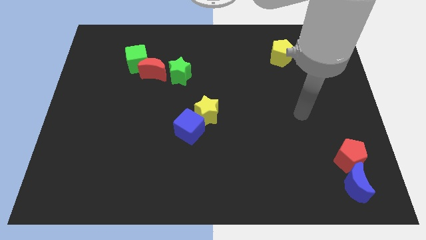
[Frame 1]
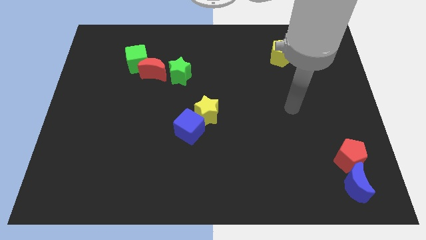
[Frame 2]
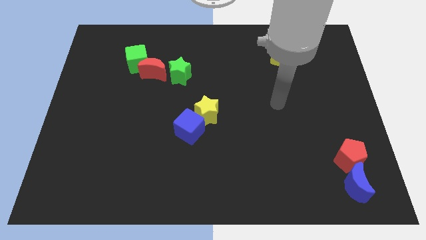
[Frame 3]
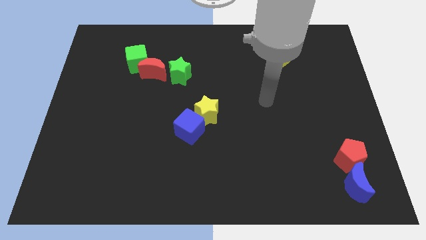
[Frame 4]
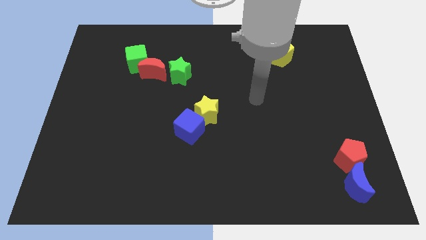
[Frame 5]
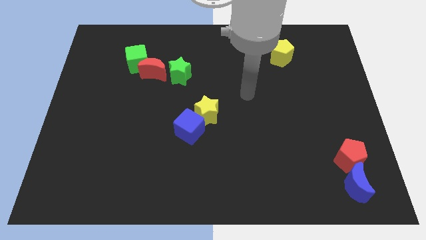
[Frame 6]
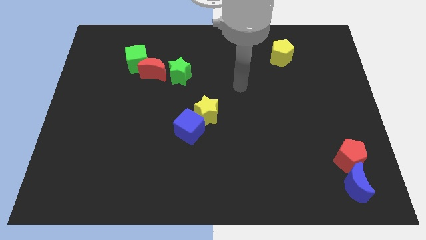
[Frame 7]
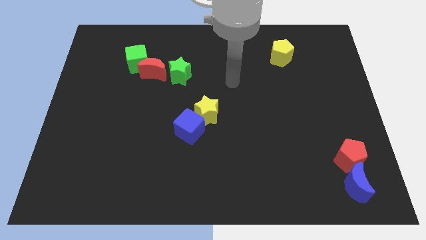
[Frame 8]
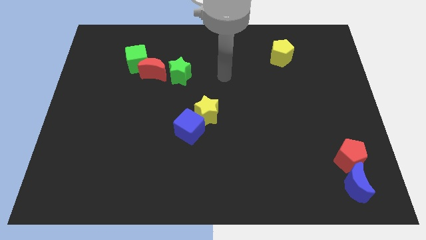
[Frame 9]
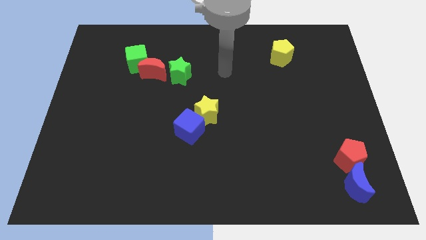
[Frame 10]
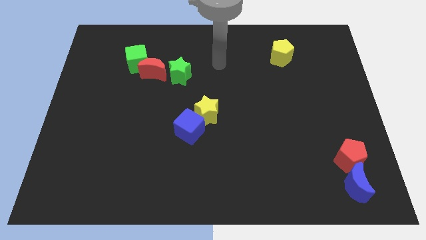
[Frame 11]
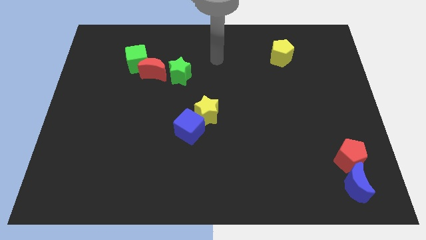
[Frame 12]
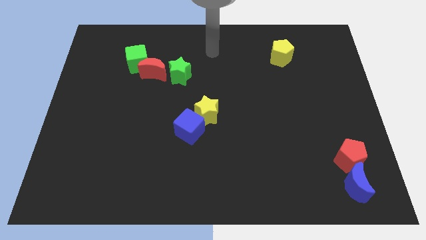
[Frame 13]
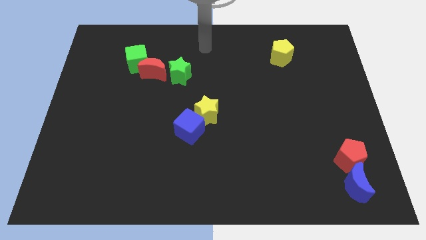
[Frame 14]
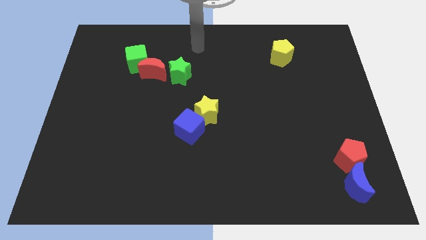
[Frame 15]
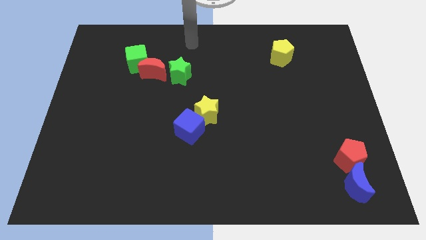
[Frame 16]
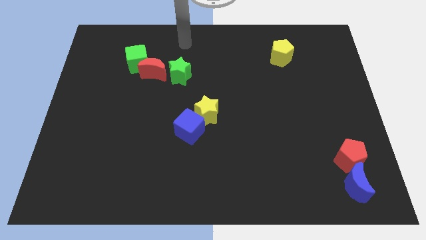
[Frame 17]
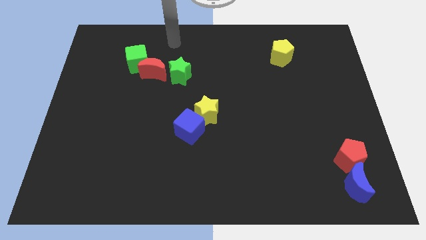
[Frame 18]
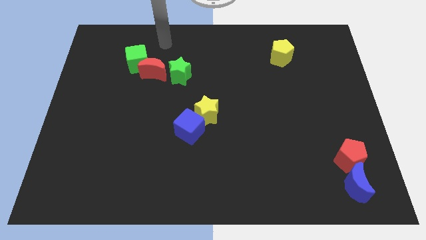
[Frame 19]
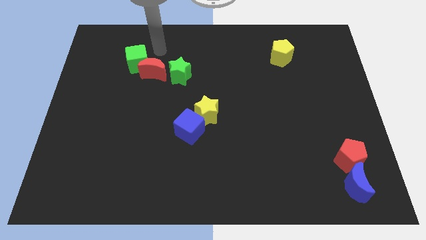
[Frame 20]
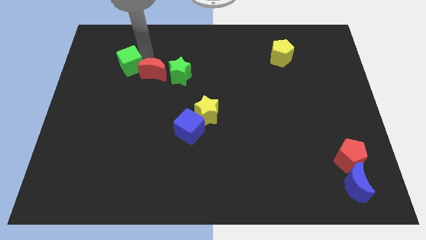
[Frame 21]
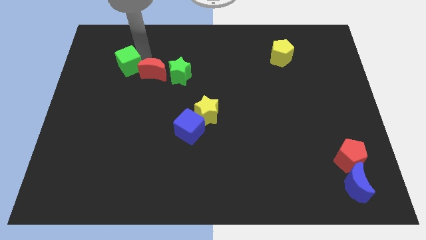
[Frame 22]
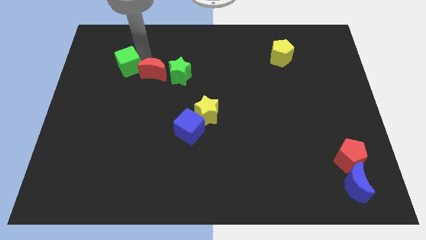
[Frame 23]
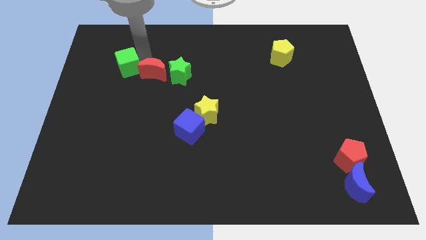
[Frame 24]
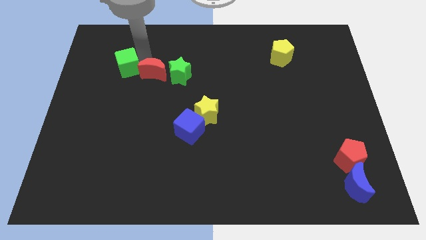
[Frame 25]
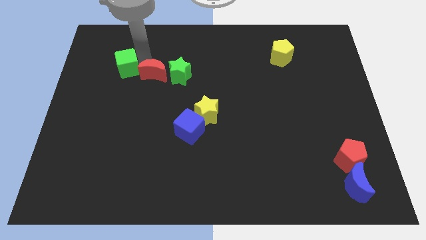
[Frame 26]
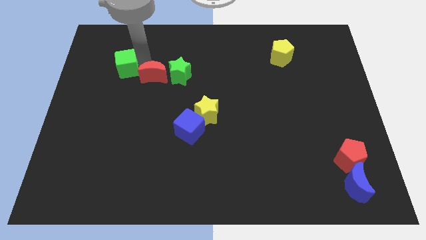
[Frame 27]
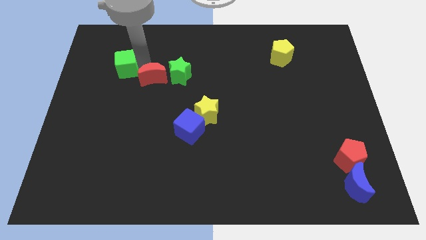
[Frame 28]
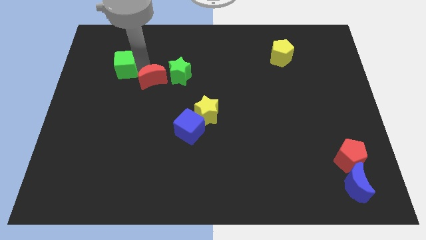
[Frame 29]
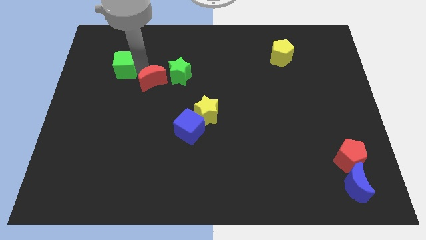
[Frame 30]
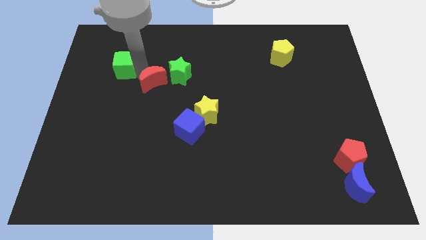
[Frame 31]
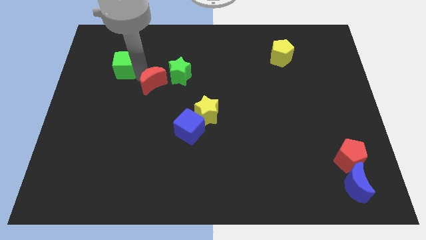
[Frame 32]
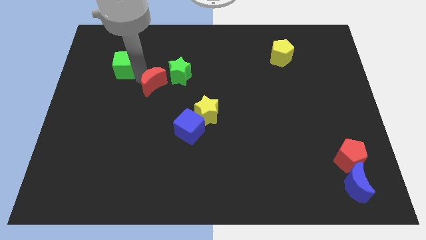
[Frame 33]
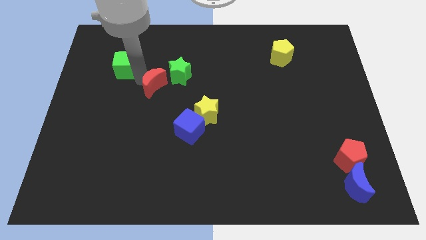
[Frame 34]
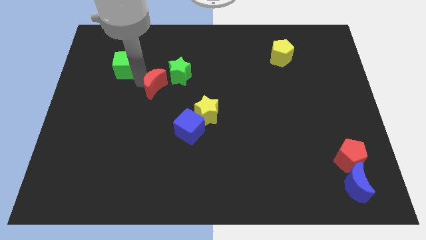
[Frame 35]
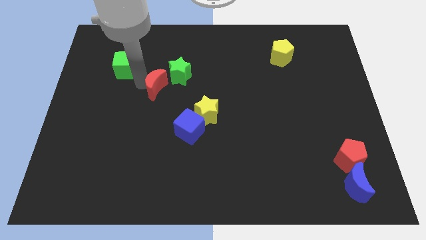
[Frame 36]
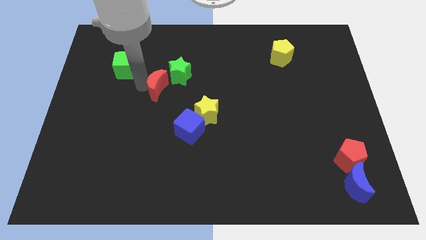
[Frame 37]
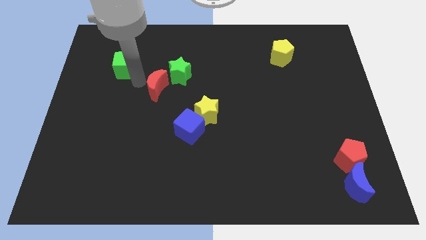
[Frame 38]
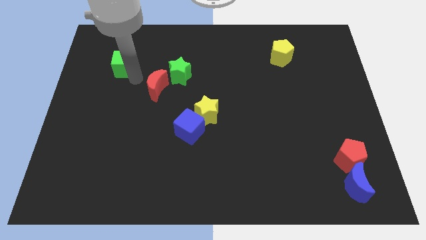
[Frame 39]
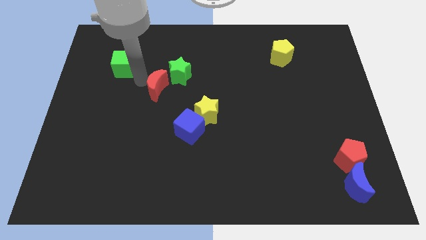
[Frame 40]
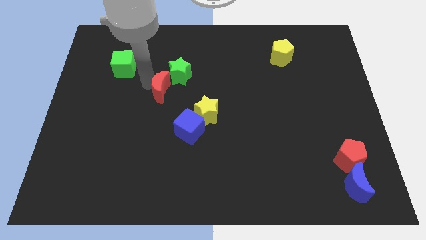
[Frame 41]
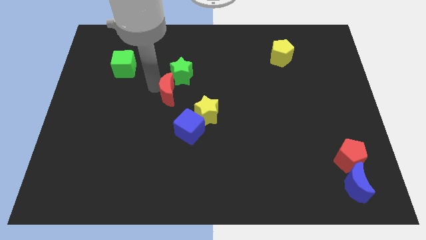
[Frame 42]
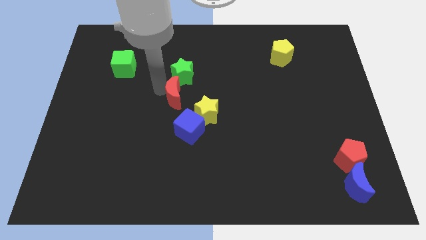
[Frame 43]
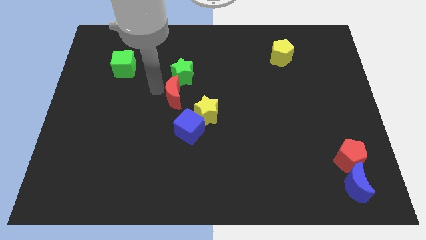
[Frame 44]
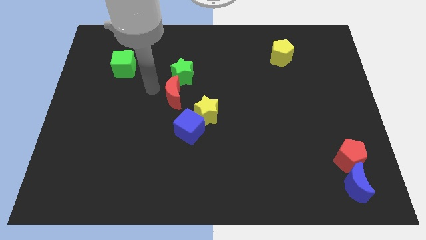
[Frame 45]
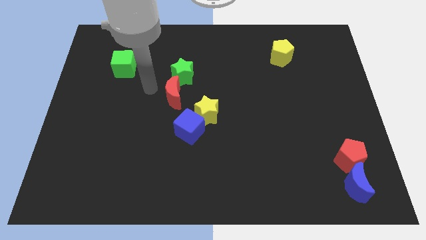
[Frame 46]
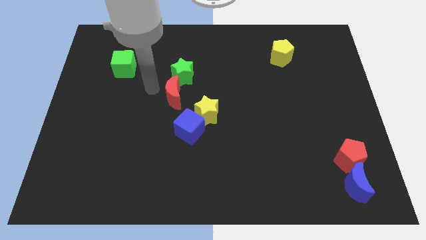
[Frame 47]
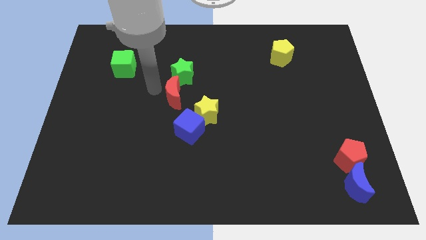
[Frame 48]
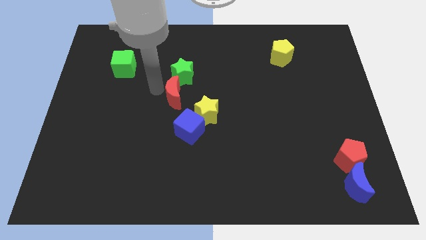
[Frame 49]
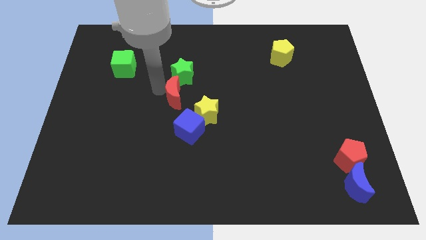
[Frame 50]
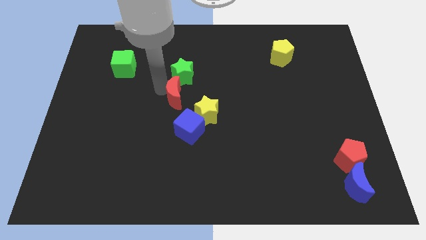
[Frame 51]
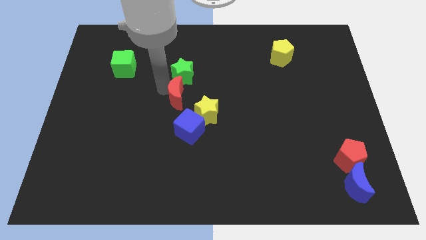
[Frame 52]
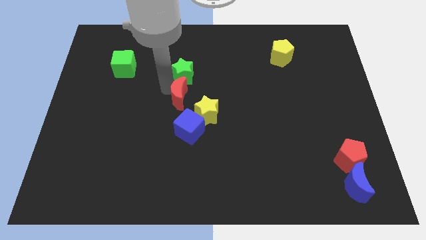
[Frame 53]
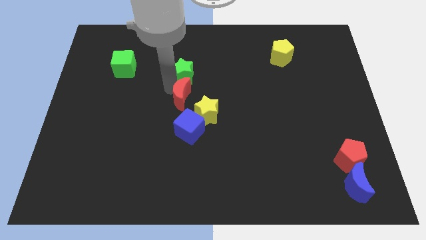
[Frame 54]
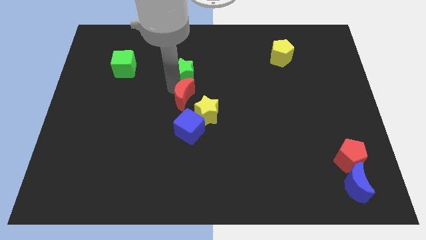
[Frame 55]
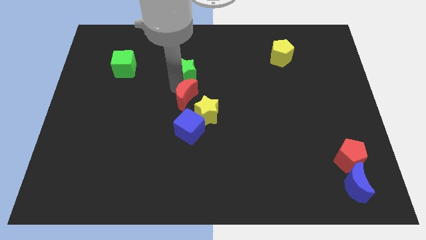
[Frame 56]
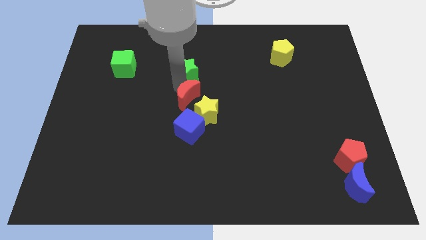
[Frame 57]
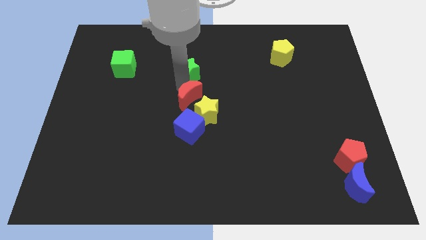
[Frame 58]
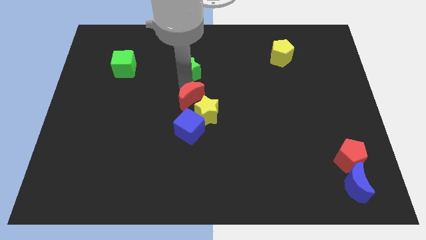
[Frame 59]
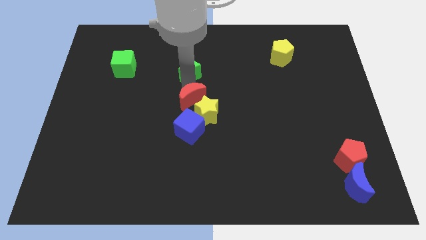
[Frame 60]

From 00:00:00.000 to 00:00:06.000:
slide the red moon next to the yellow star

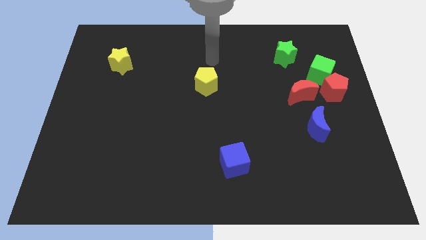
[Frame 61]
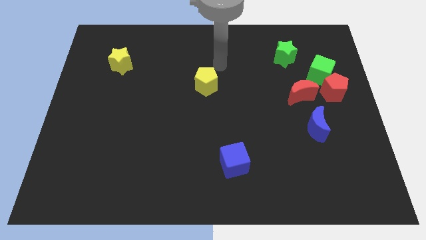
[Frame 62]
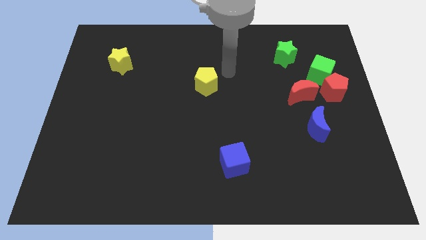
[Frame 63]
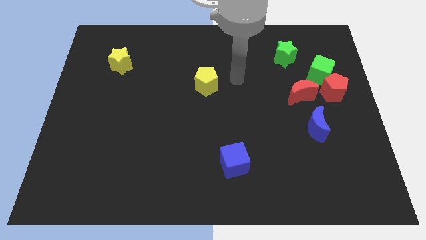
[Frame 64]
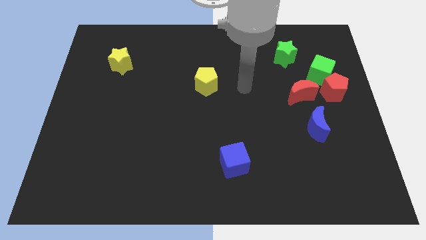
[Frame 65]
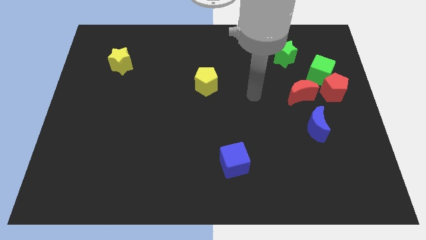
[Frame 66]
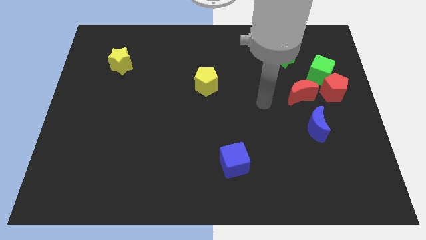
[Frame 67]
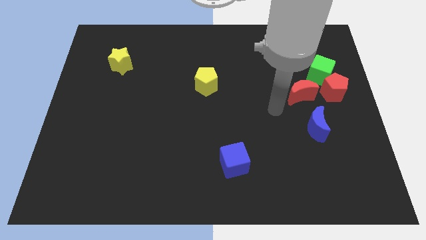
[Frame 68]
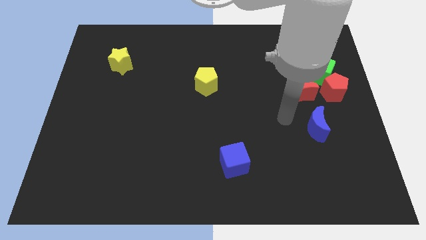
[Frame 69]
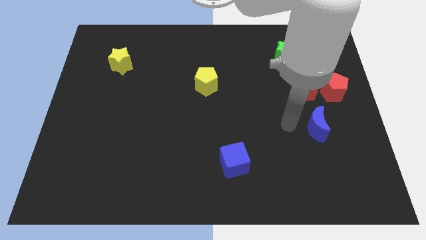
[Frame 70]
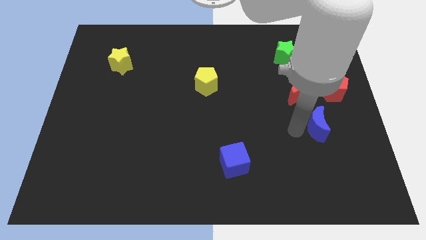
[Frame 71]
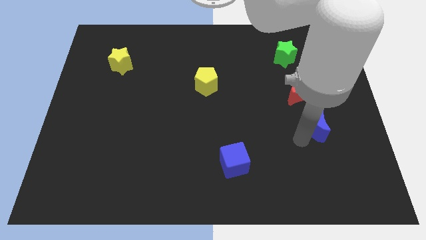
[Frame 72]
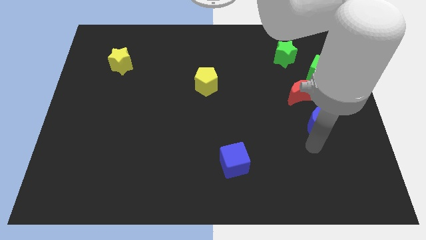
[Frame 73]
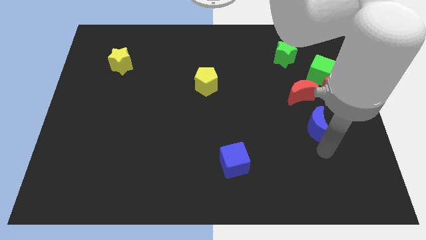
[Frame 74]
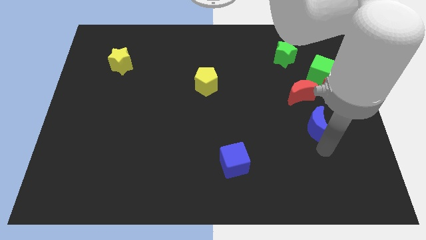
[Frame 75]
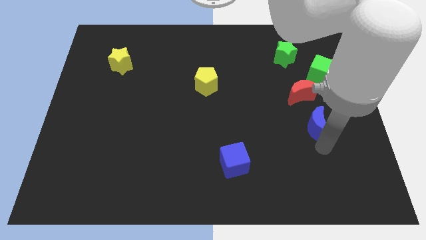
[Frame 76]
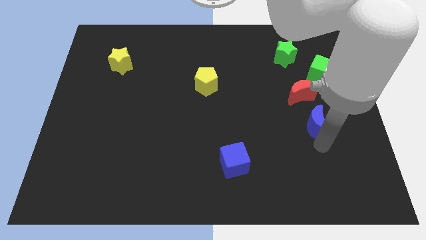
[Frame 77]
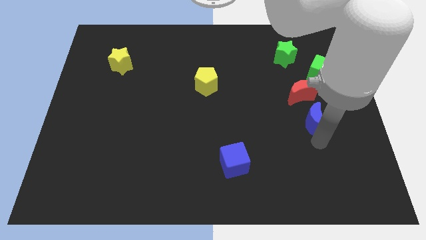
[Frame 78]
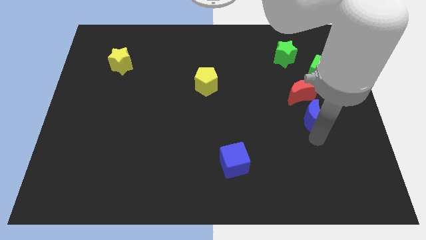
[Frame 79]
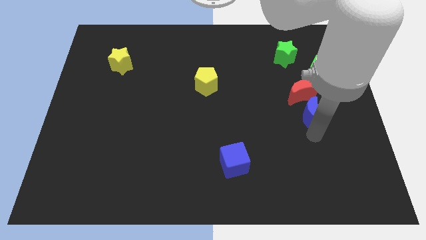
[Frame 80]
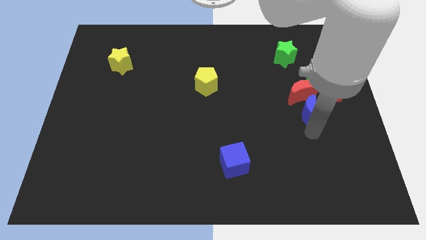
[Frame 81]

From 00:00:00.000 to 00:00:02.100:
put the blue moon next to the red moon

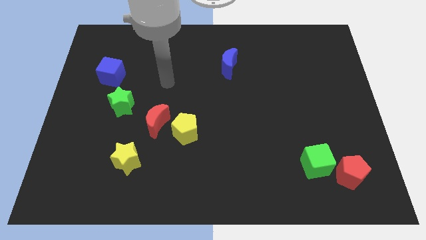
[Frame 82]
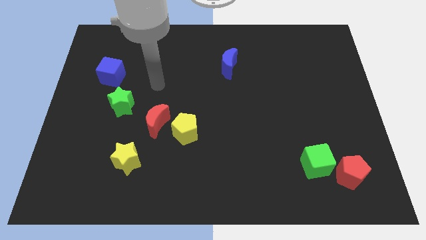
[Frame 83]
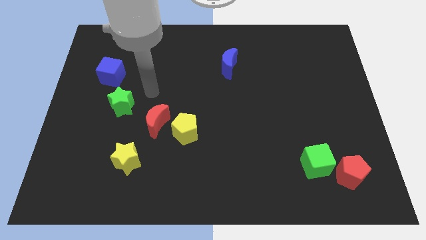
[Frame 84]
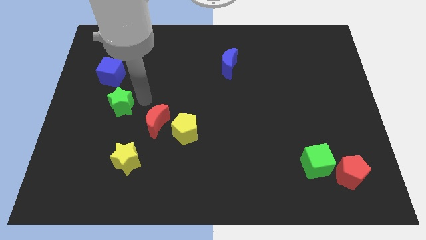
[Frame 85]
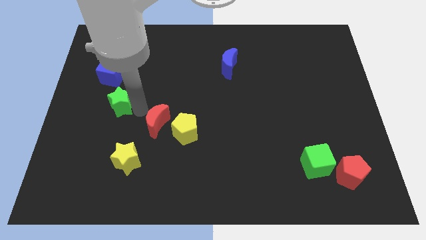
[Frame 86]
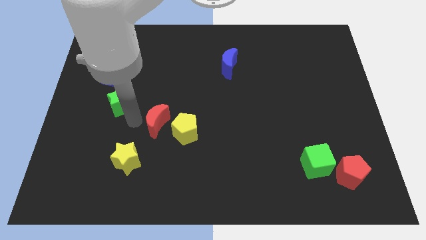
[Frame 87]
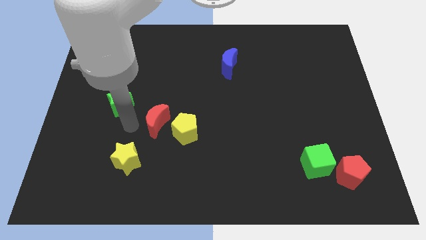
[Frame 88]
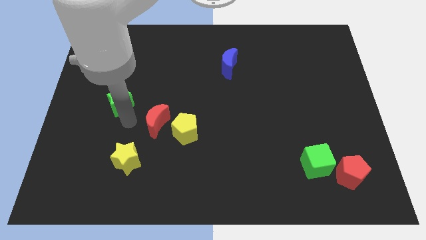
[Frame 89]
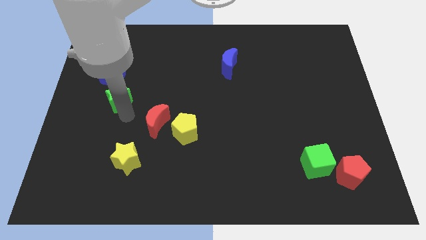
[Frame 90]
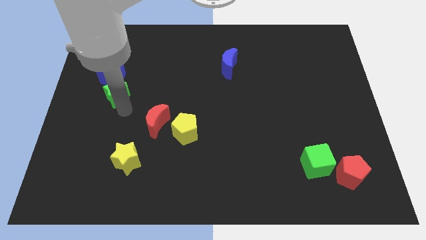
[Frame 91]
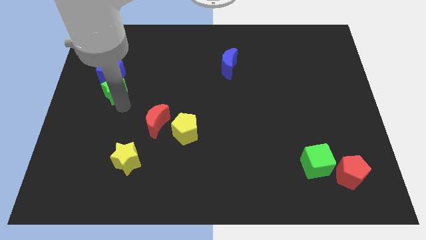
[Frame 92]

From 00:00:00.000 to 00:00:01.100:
move the green star to the blue cube
